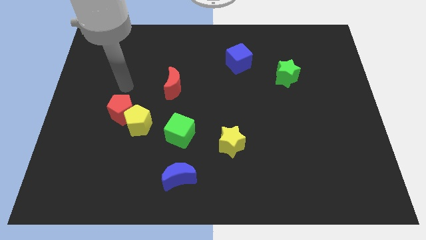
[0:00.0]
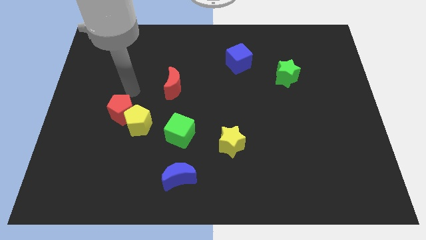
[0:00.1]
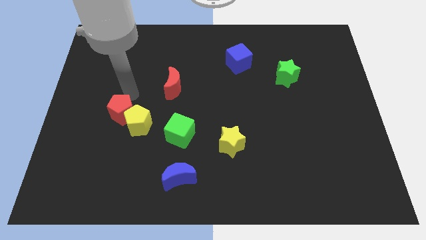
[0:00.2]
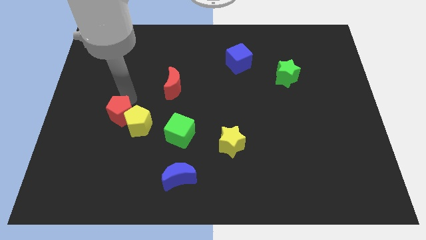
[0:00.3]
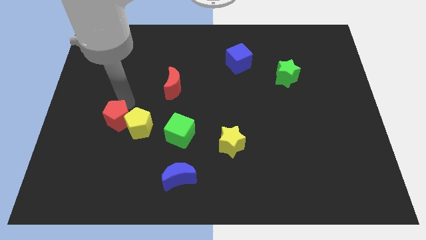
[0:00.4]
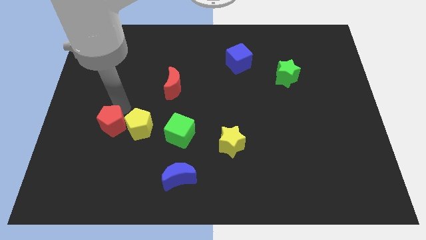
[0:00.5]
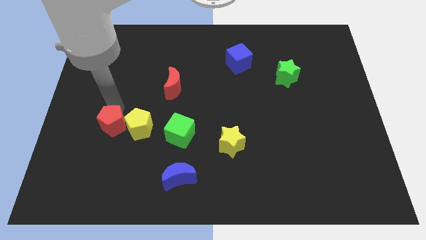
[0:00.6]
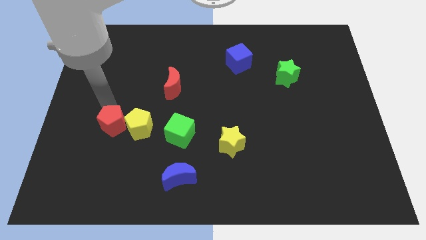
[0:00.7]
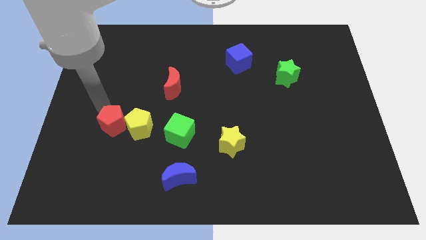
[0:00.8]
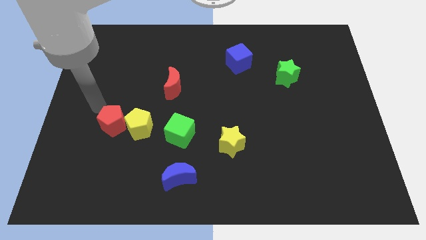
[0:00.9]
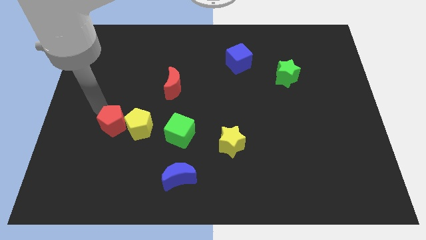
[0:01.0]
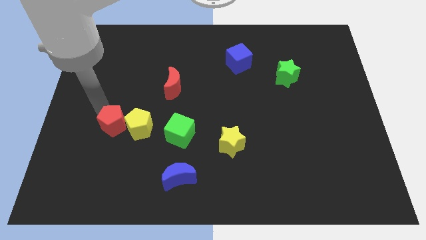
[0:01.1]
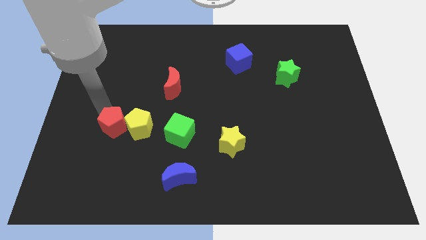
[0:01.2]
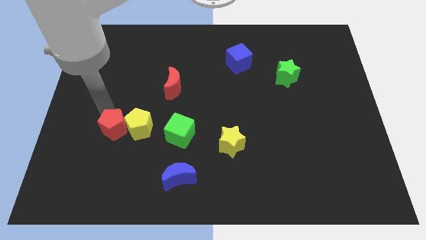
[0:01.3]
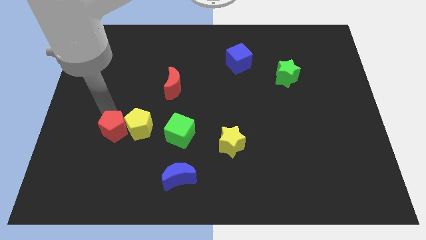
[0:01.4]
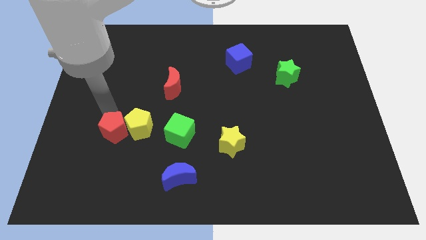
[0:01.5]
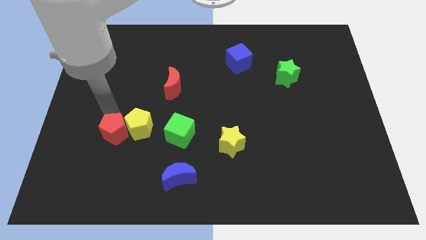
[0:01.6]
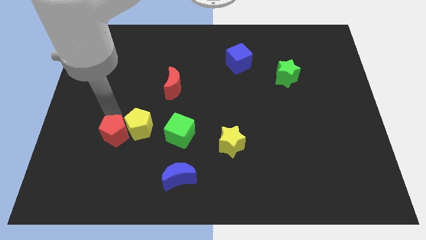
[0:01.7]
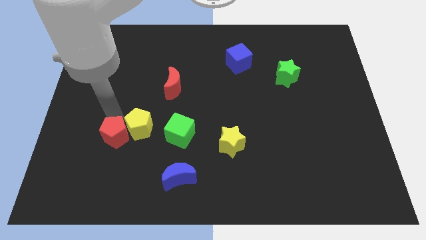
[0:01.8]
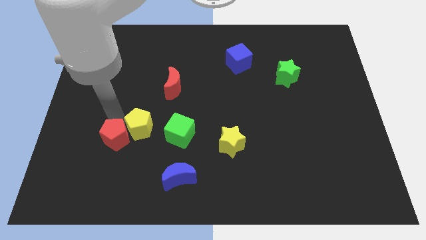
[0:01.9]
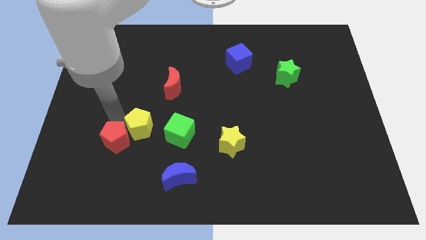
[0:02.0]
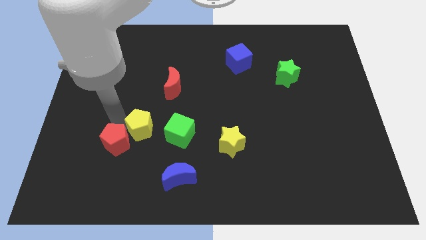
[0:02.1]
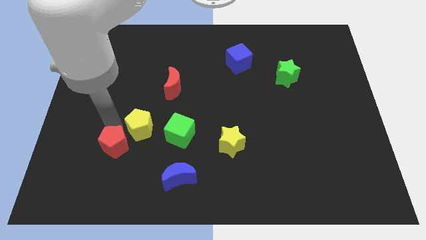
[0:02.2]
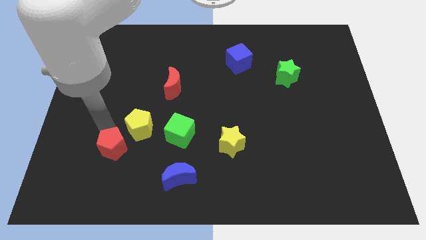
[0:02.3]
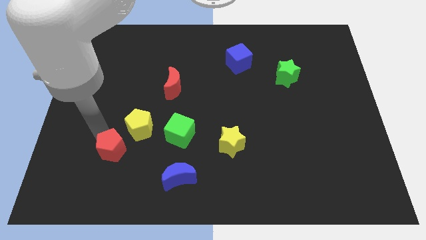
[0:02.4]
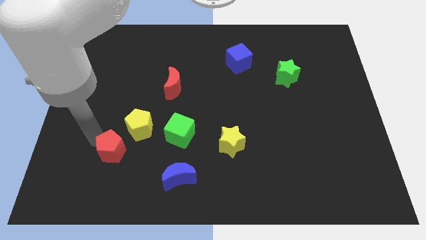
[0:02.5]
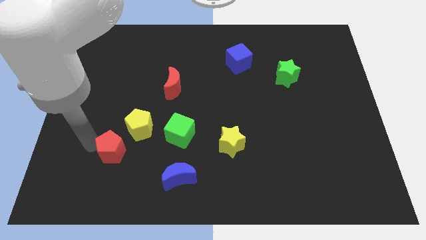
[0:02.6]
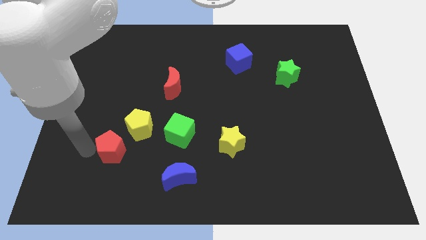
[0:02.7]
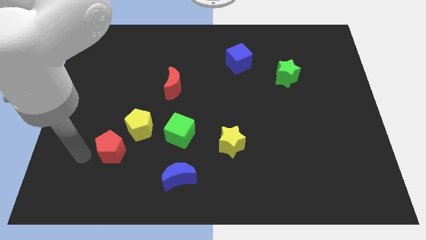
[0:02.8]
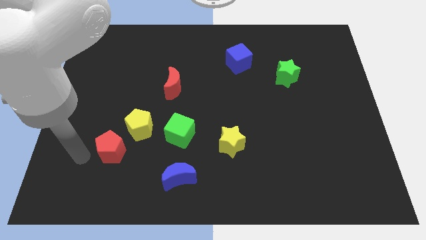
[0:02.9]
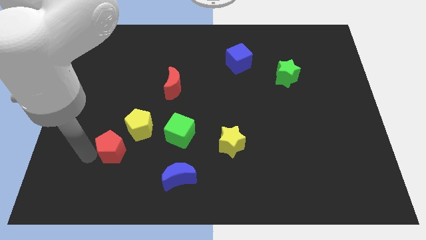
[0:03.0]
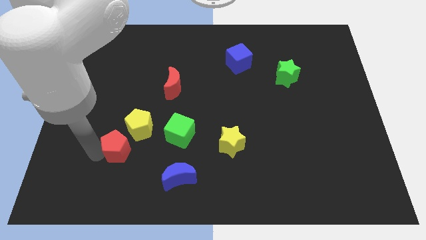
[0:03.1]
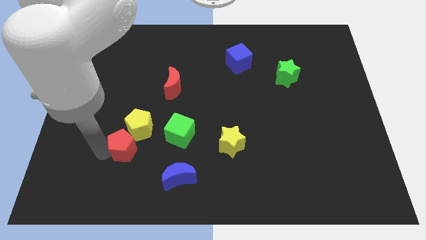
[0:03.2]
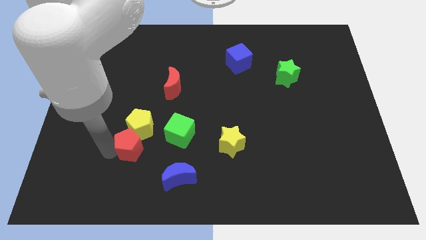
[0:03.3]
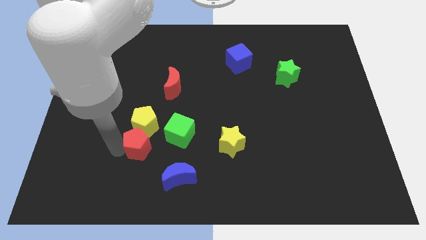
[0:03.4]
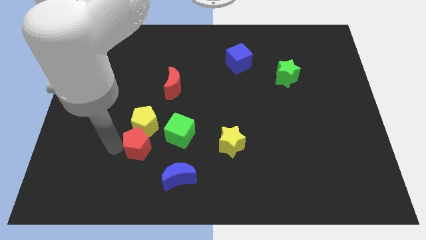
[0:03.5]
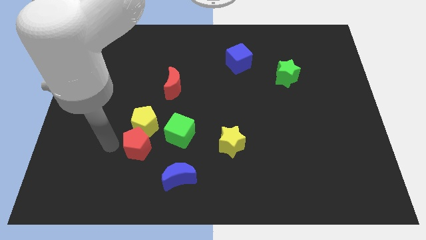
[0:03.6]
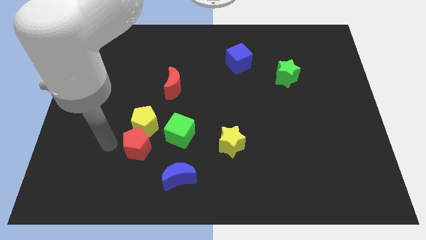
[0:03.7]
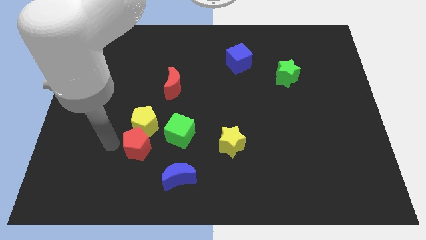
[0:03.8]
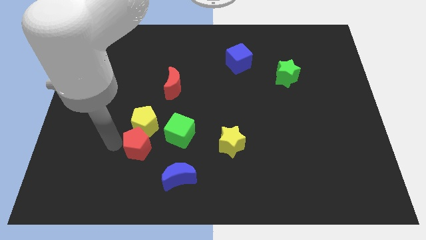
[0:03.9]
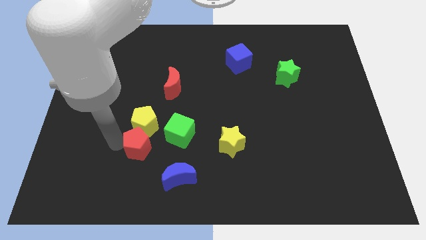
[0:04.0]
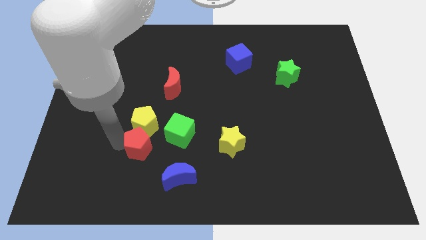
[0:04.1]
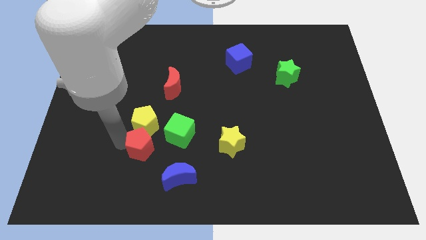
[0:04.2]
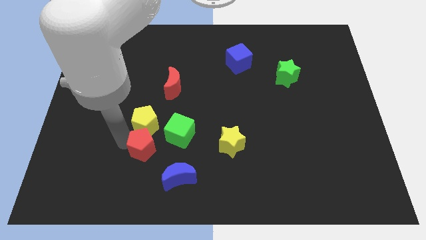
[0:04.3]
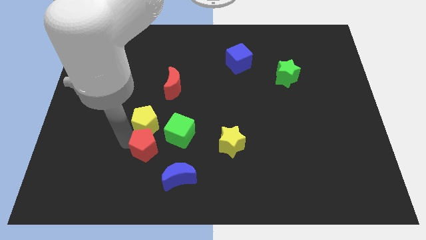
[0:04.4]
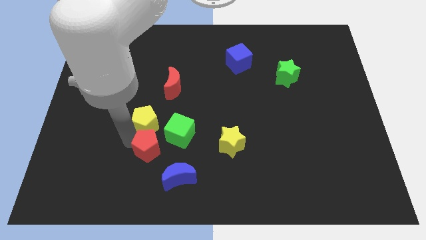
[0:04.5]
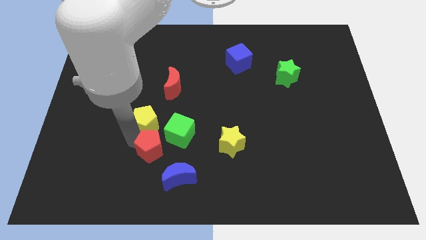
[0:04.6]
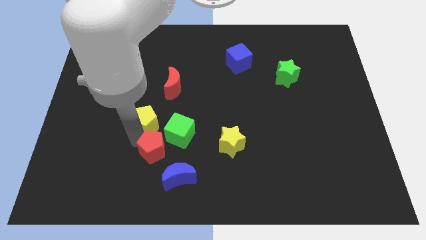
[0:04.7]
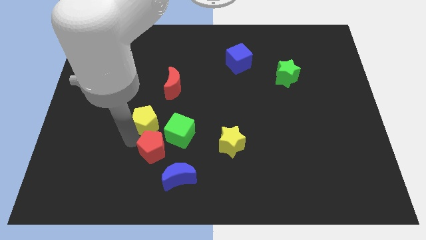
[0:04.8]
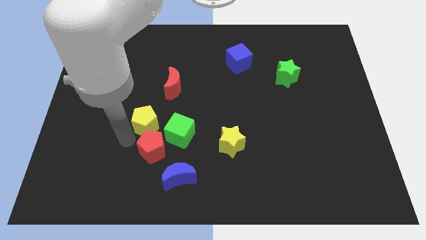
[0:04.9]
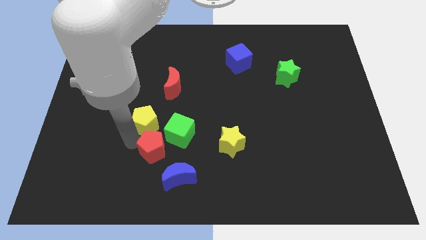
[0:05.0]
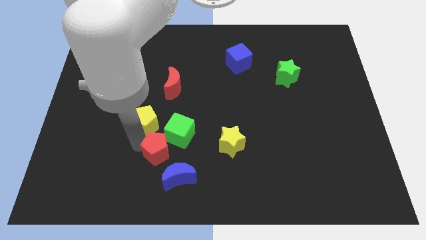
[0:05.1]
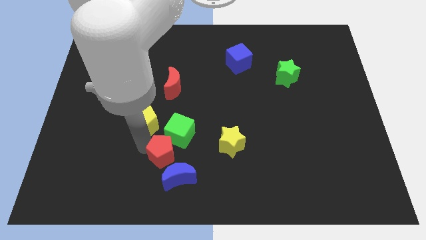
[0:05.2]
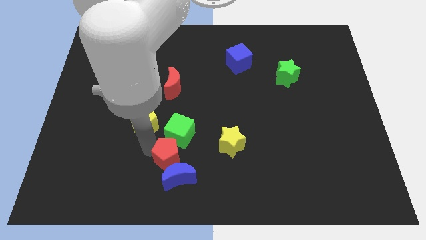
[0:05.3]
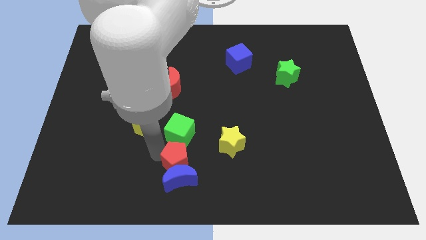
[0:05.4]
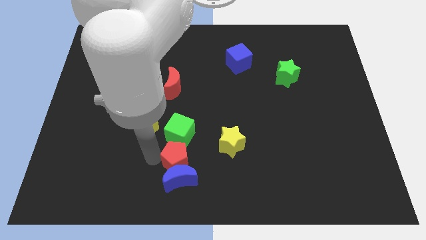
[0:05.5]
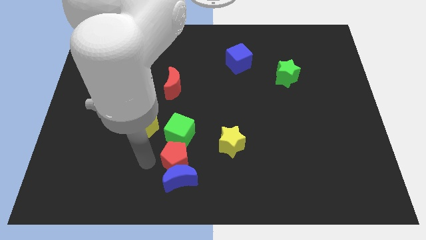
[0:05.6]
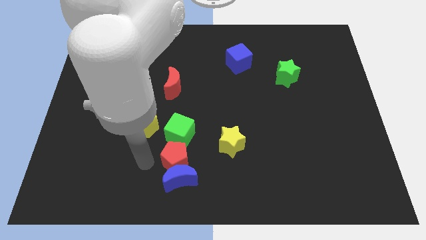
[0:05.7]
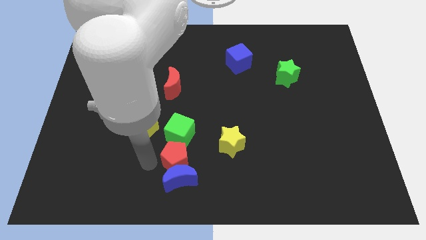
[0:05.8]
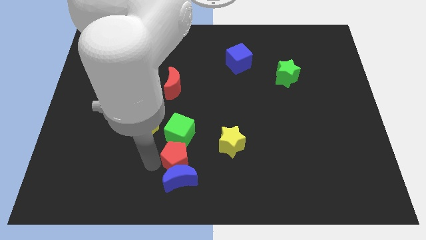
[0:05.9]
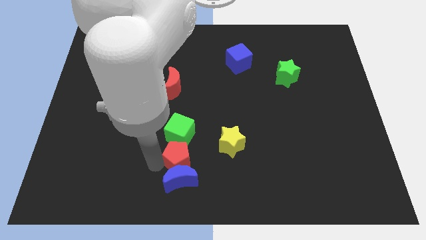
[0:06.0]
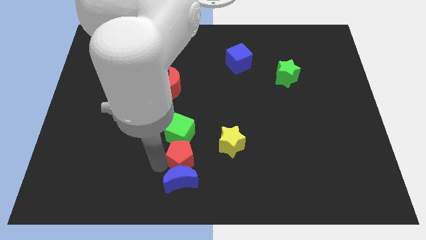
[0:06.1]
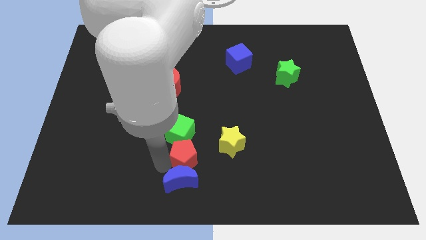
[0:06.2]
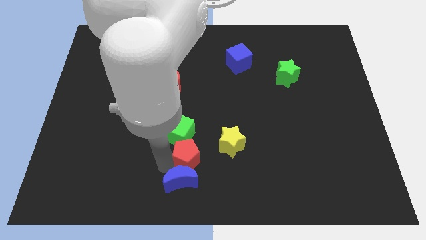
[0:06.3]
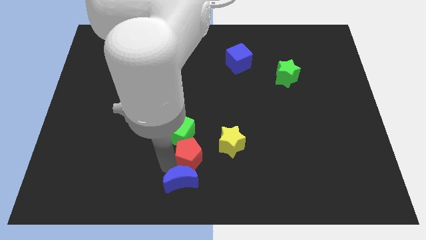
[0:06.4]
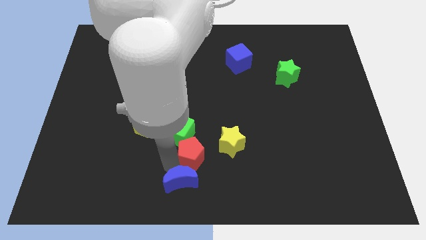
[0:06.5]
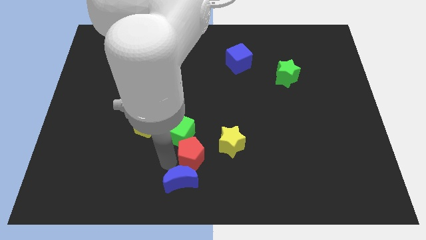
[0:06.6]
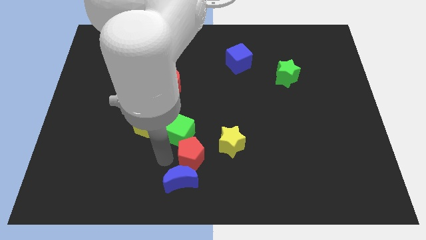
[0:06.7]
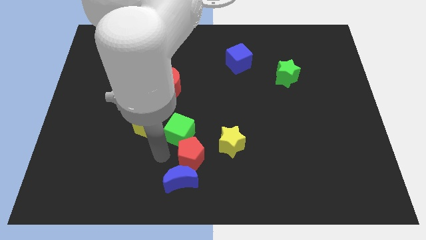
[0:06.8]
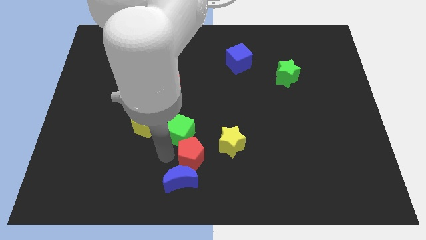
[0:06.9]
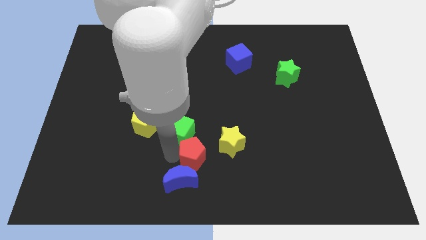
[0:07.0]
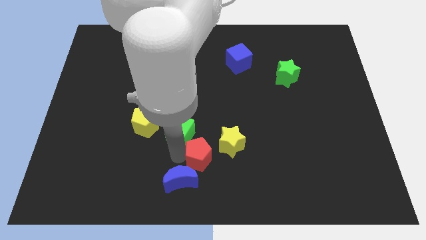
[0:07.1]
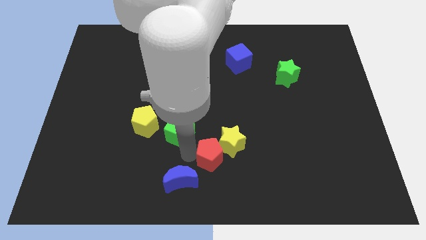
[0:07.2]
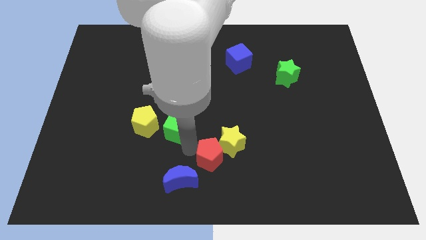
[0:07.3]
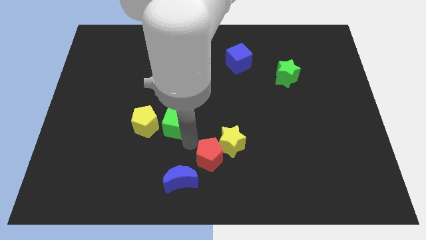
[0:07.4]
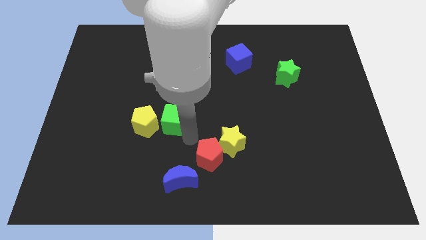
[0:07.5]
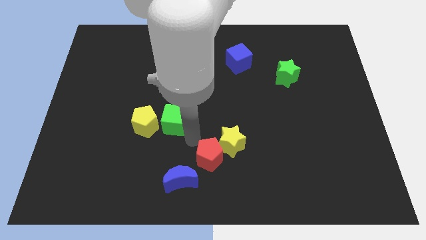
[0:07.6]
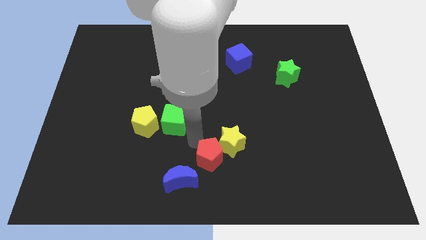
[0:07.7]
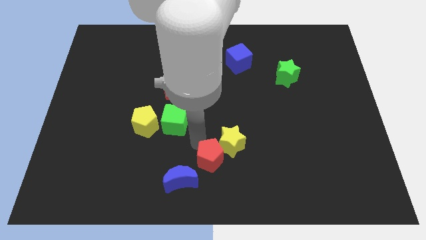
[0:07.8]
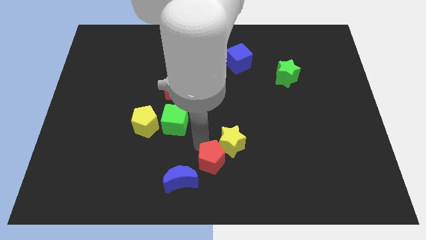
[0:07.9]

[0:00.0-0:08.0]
slide the red pentagon to the right of the blue moon
